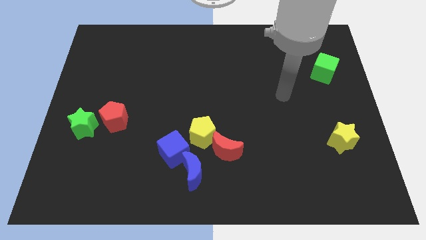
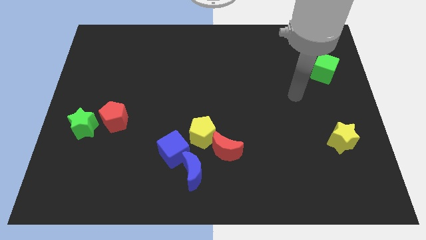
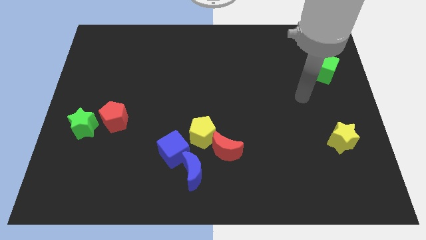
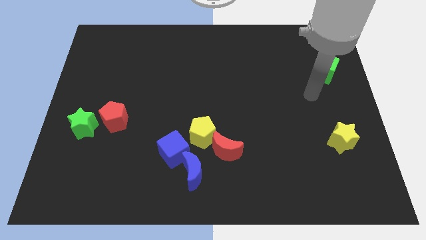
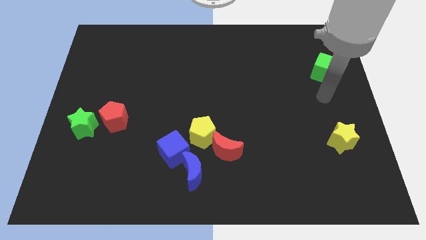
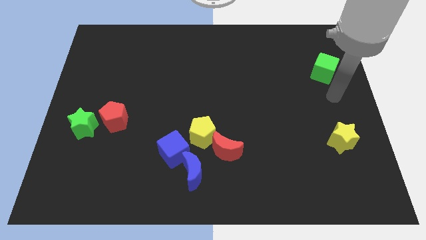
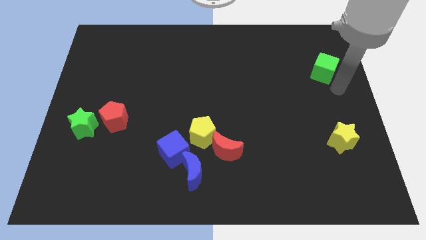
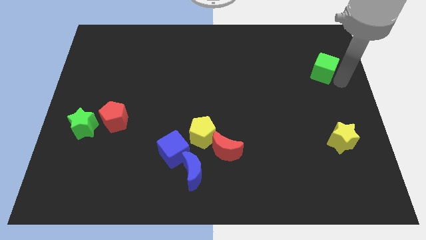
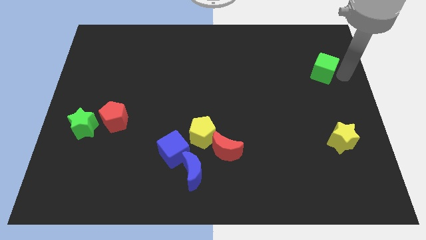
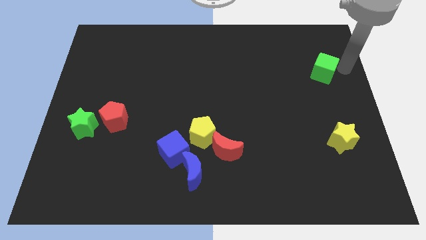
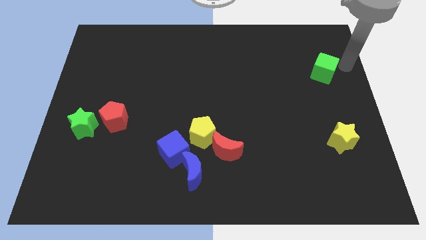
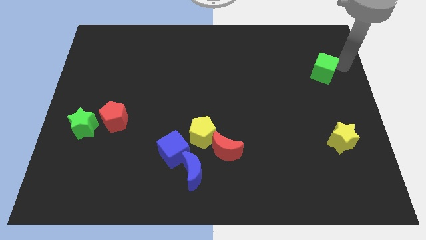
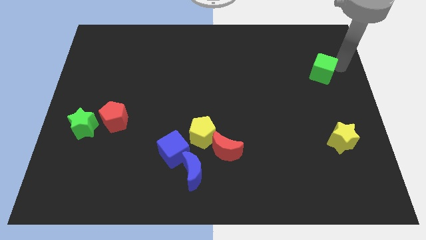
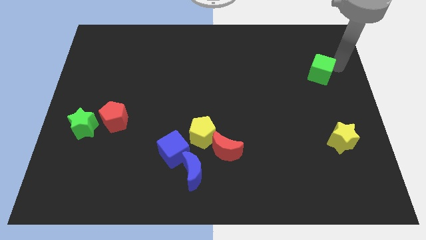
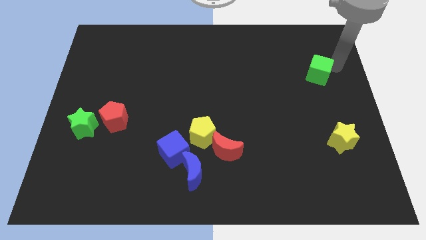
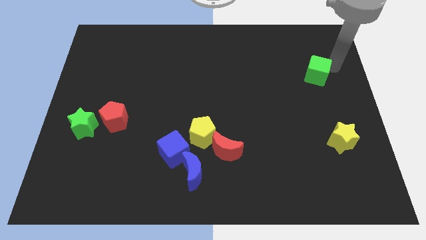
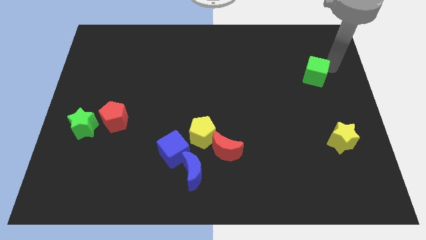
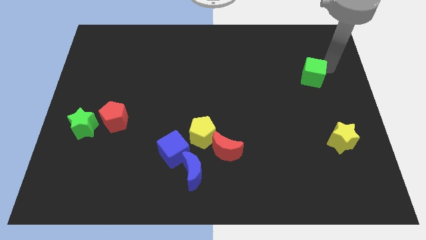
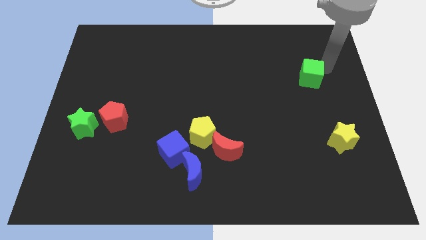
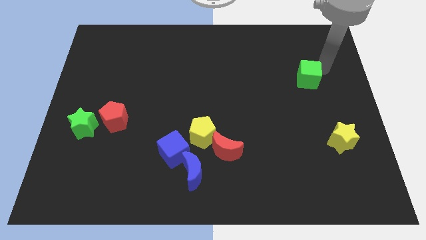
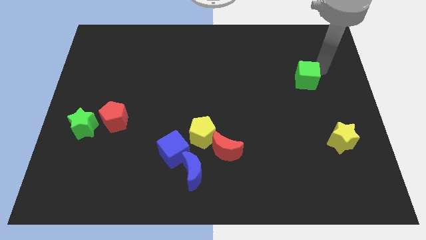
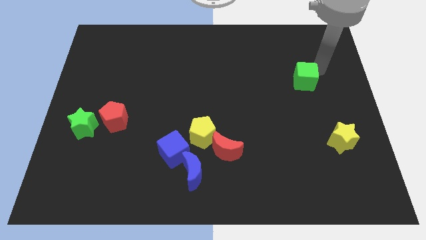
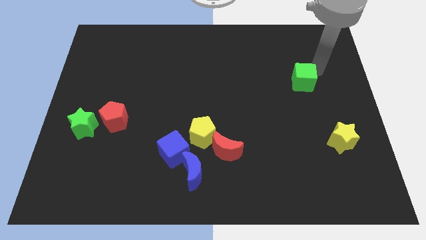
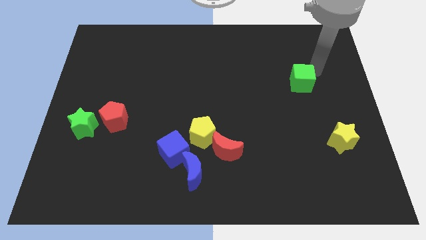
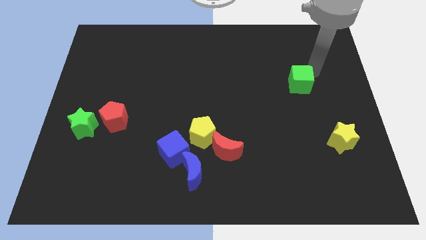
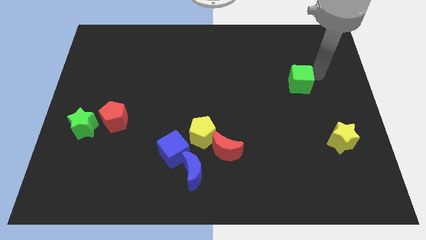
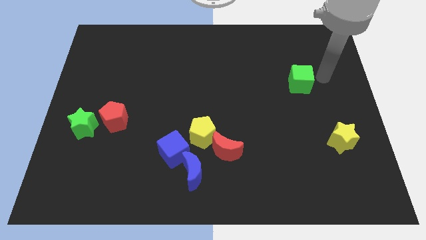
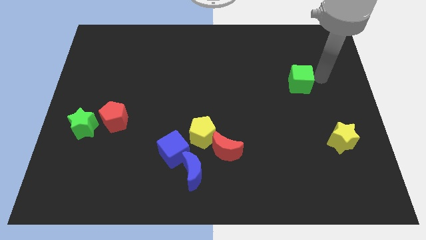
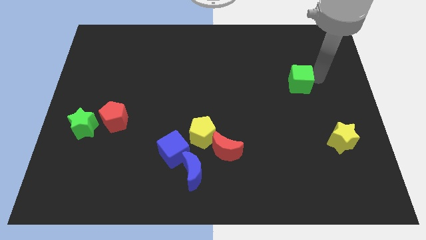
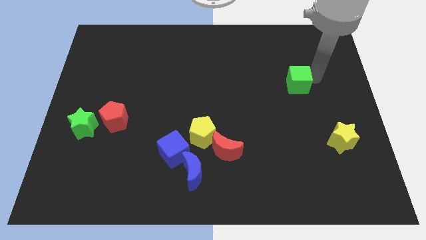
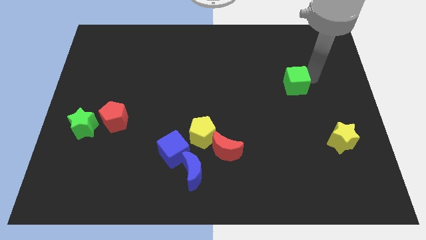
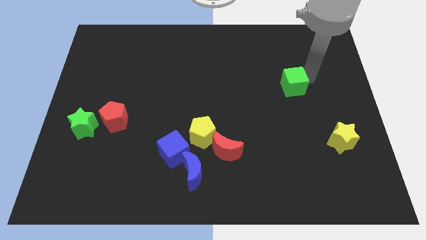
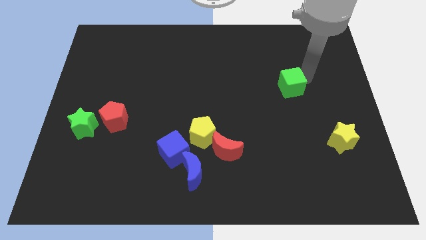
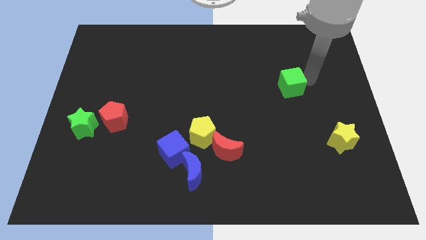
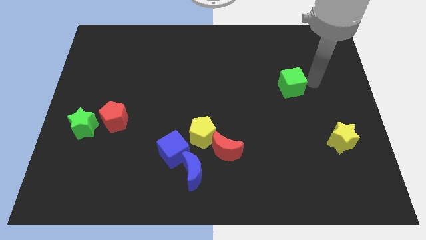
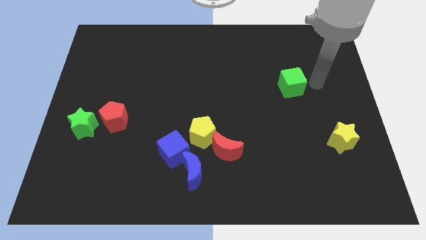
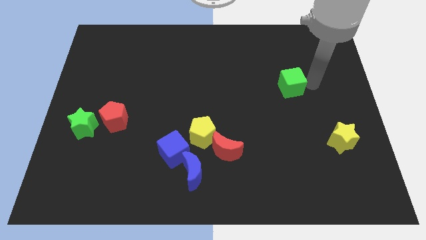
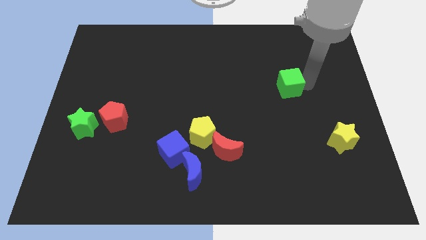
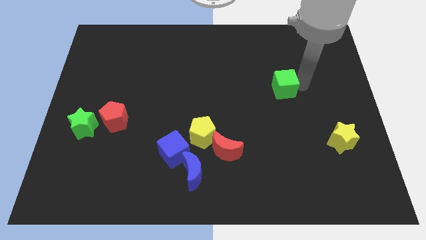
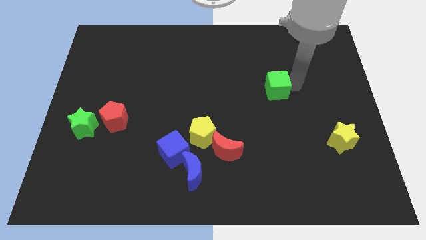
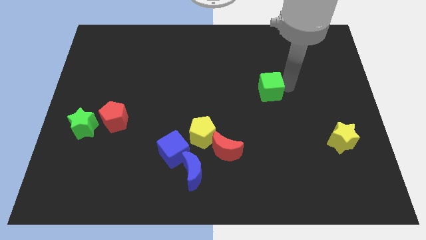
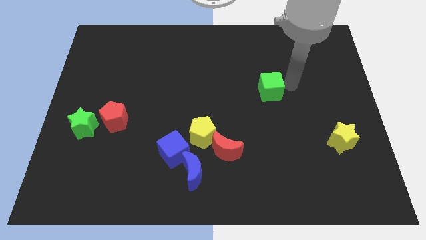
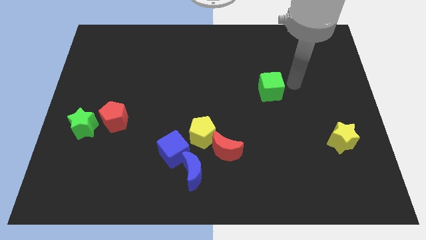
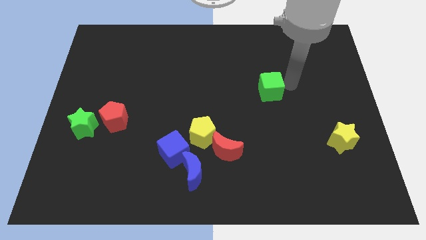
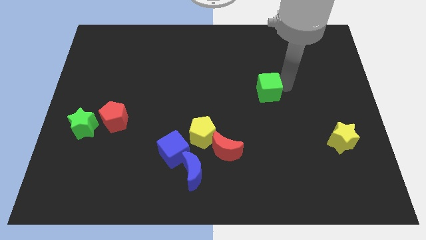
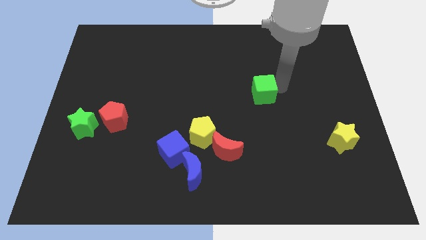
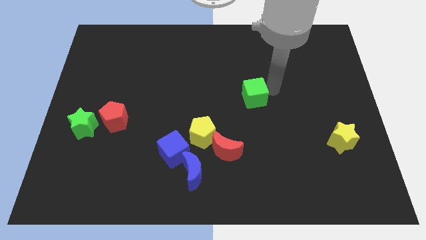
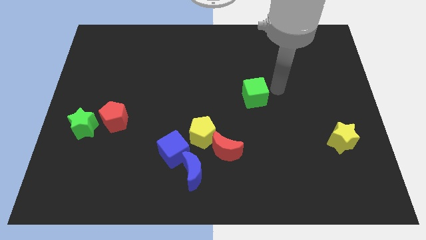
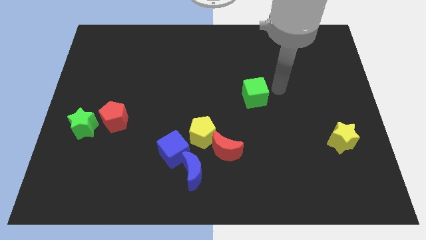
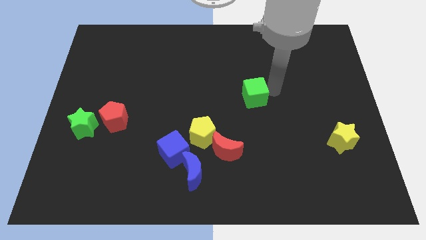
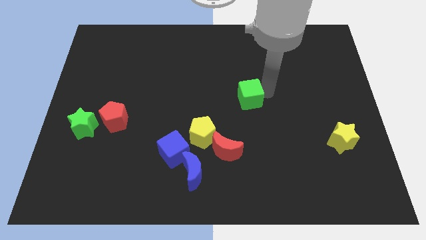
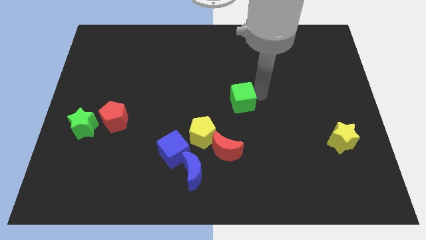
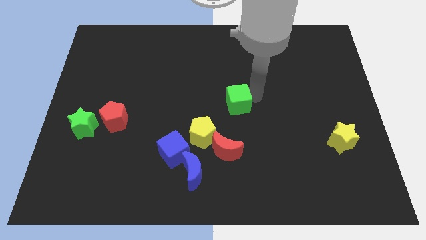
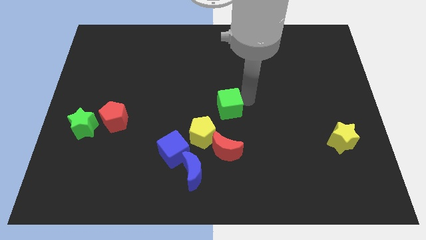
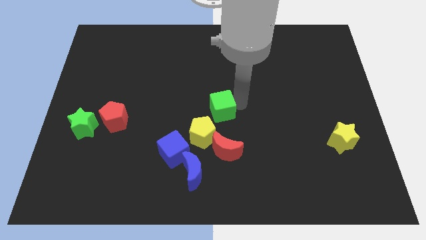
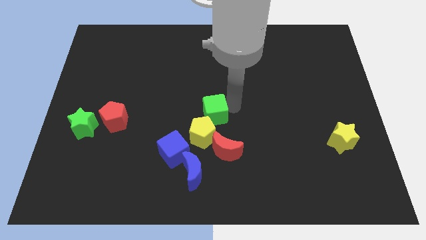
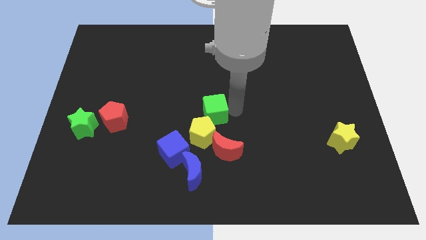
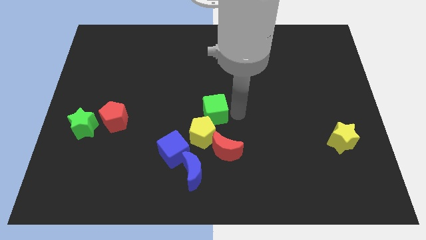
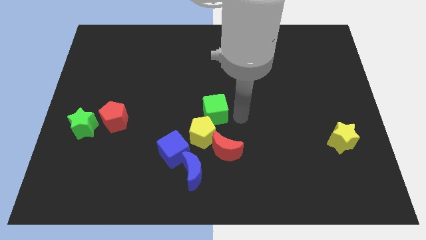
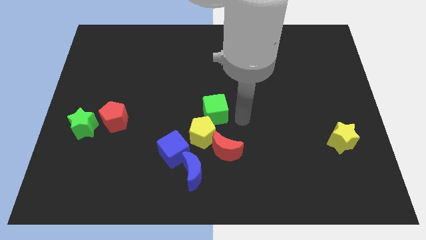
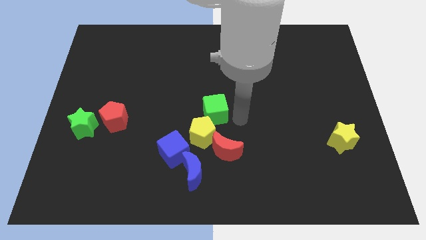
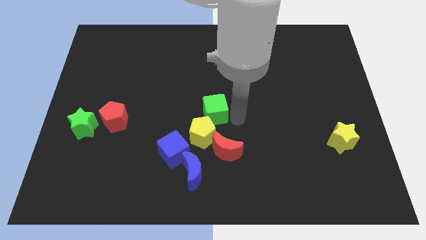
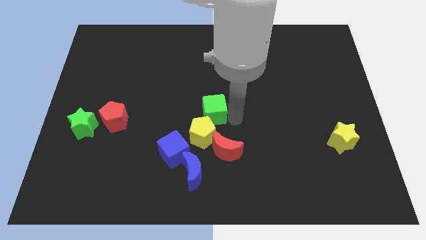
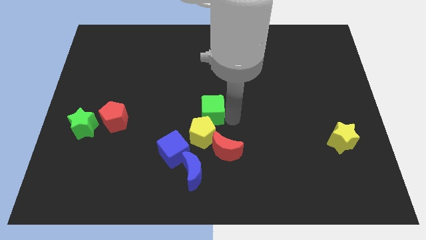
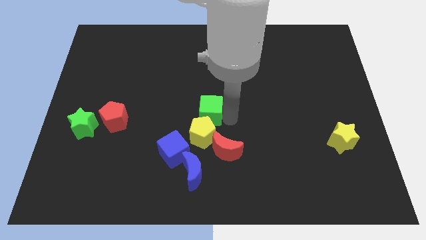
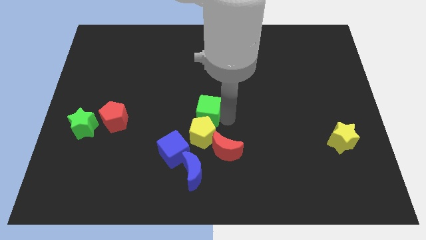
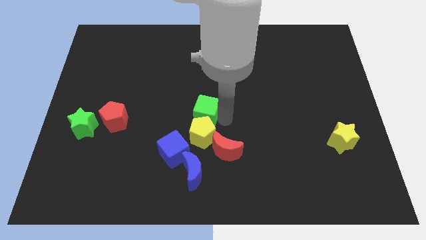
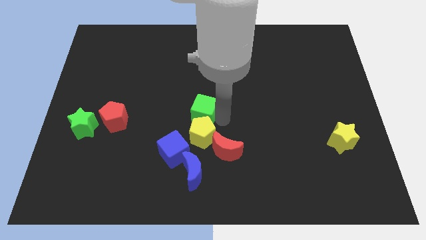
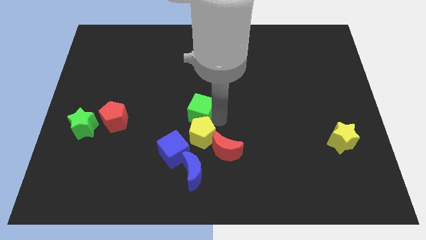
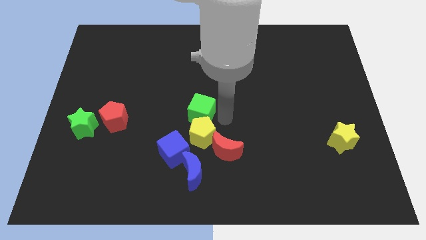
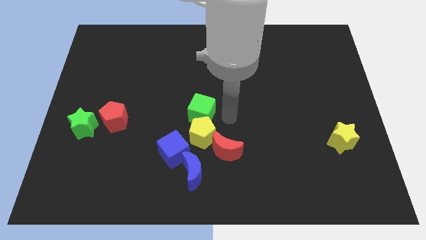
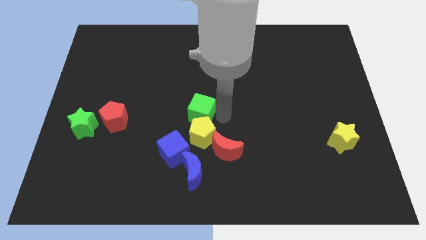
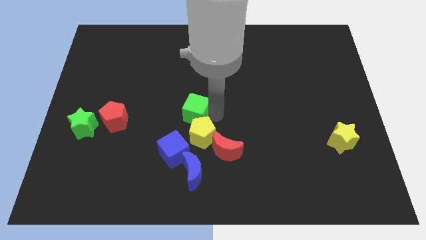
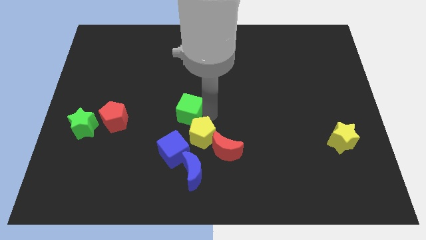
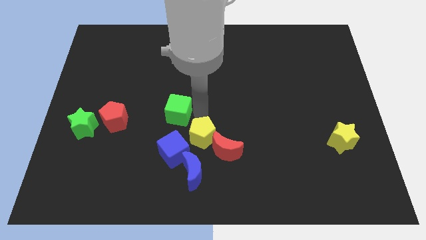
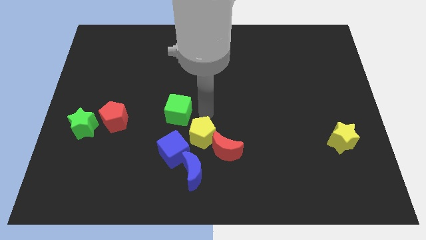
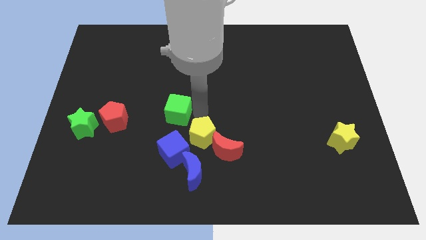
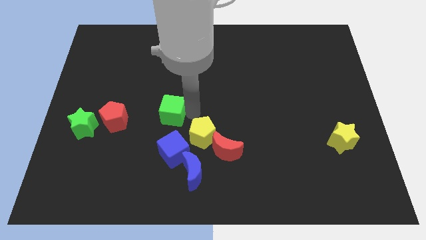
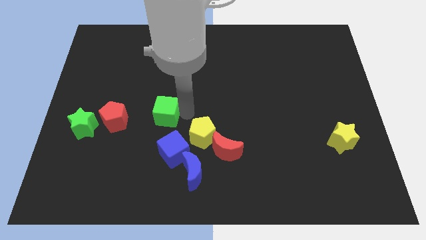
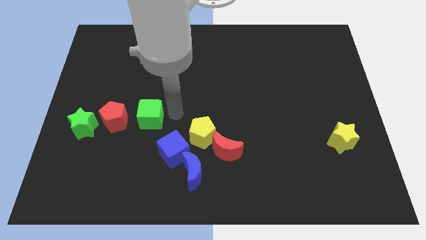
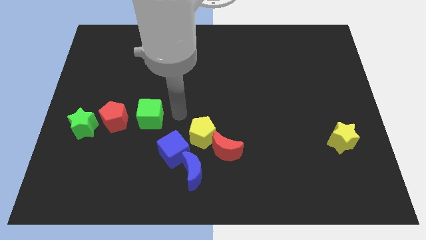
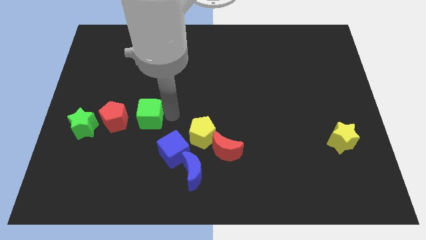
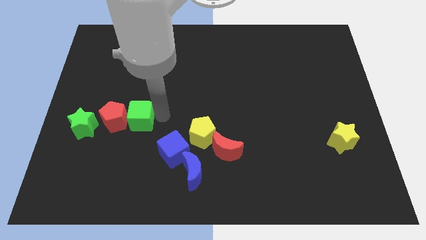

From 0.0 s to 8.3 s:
move the green cube to the red pentagon
